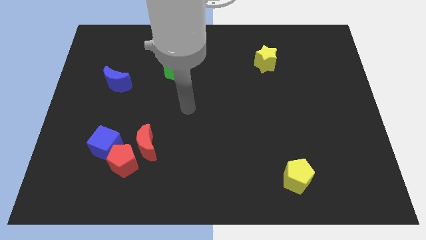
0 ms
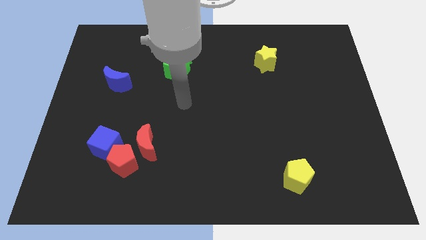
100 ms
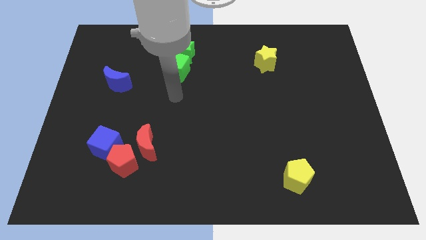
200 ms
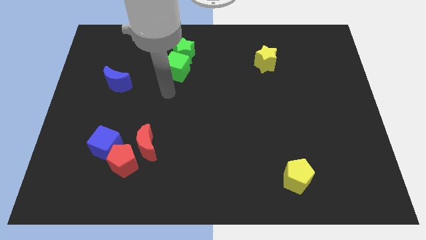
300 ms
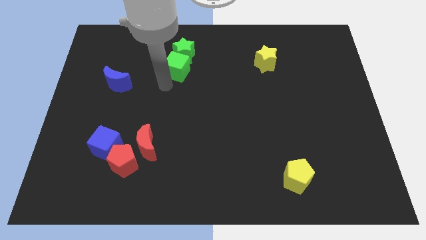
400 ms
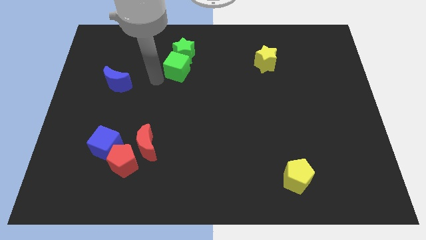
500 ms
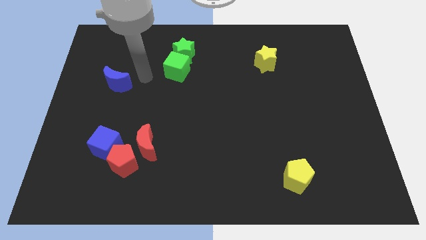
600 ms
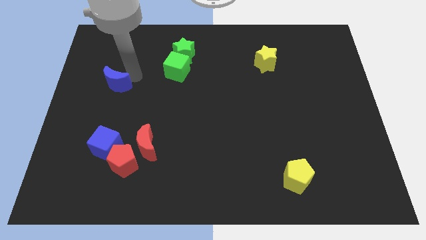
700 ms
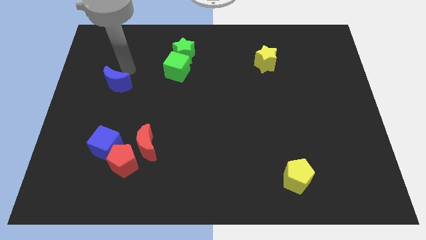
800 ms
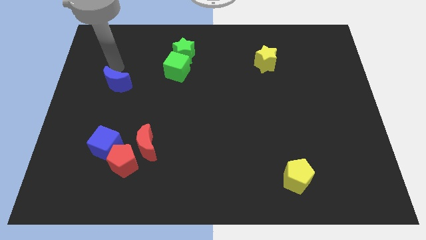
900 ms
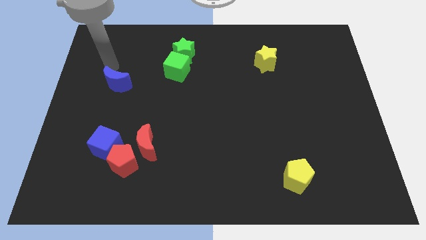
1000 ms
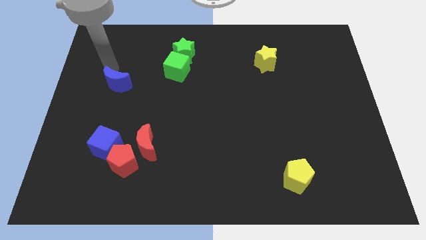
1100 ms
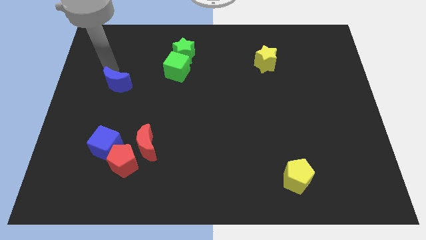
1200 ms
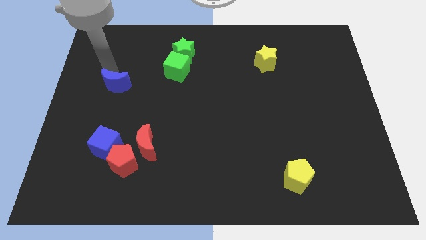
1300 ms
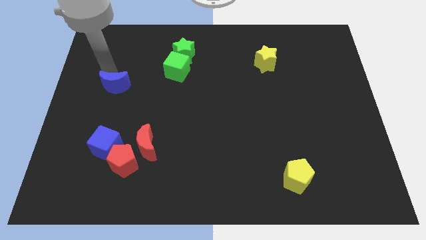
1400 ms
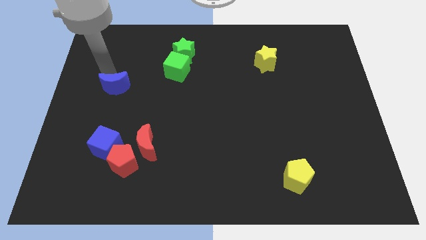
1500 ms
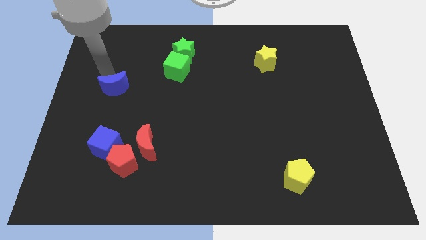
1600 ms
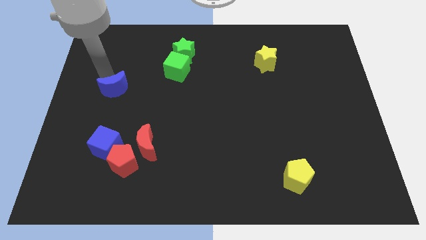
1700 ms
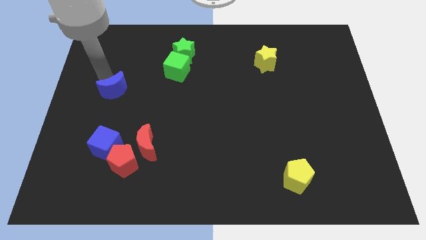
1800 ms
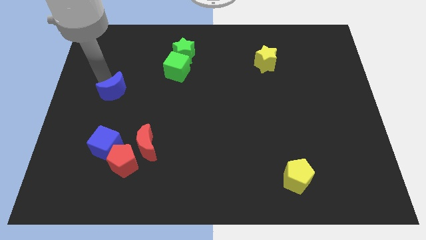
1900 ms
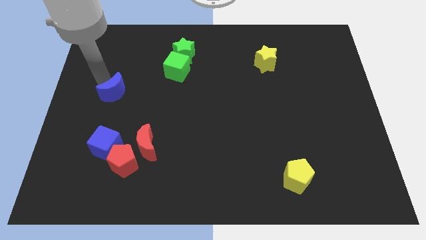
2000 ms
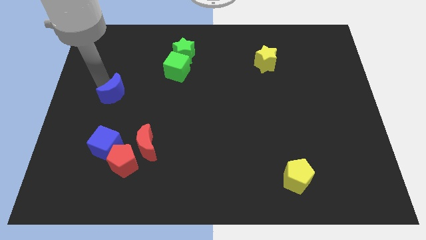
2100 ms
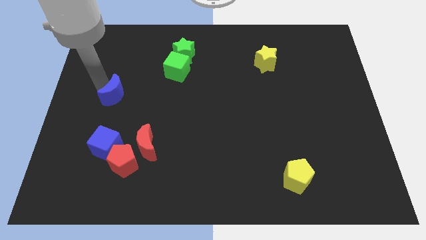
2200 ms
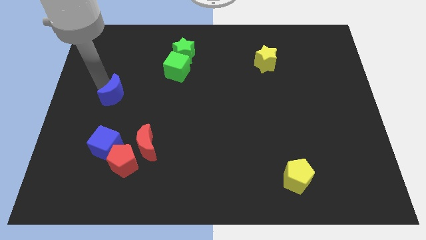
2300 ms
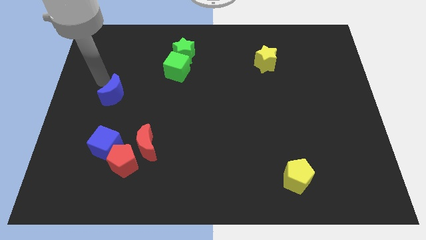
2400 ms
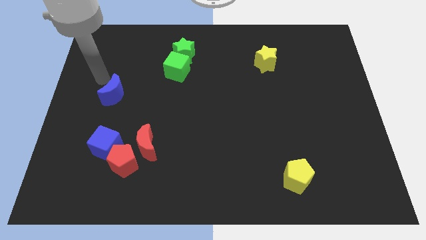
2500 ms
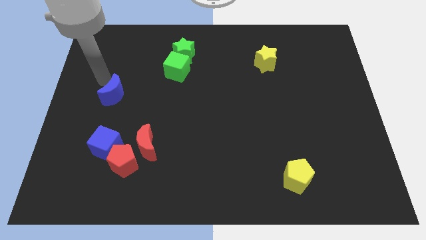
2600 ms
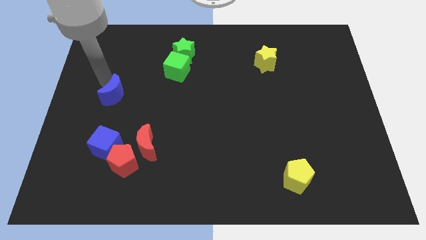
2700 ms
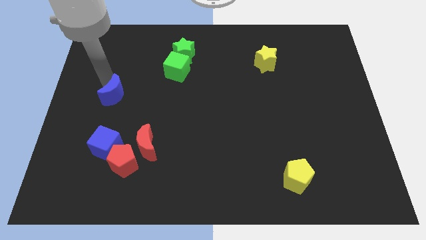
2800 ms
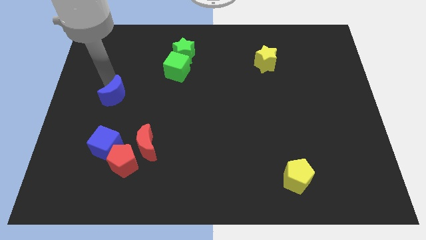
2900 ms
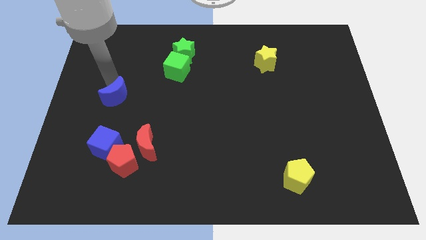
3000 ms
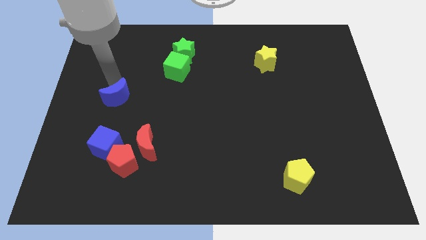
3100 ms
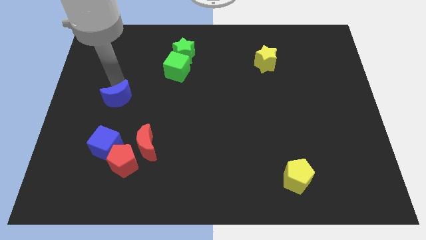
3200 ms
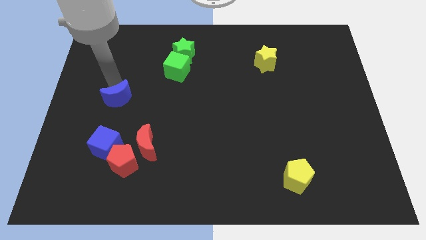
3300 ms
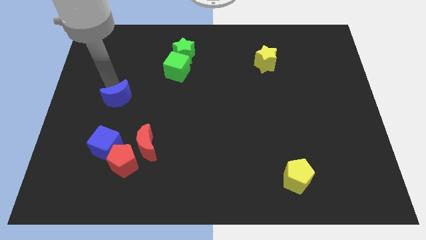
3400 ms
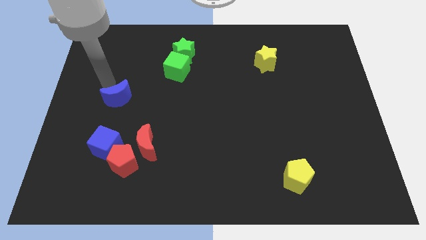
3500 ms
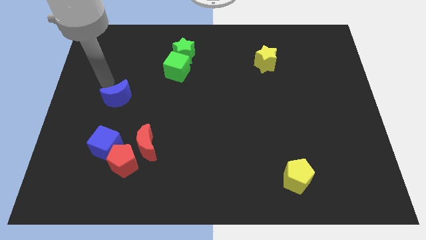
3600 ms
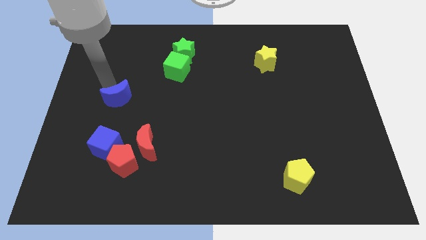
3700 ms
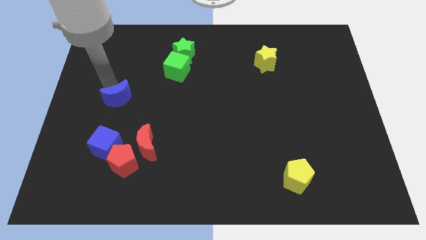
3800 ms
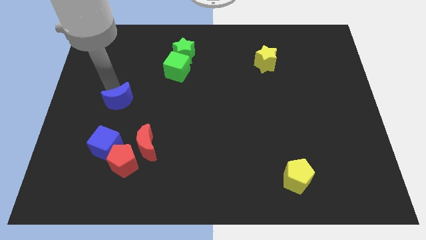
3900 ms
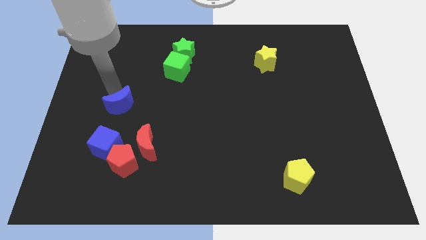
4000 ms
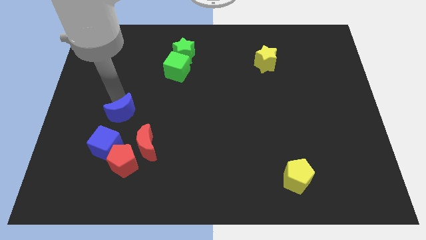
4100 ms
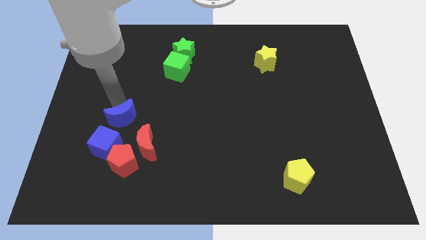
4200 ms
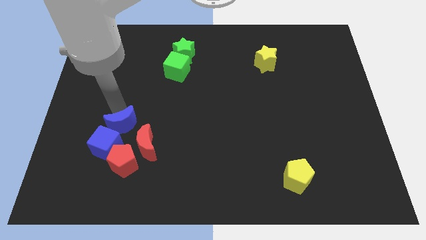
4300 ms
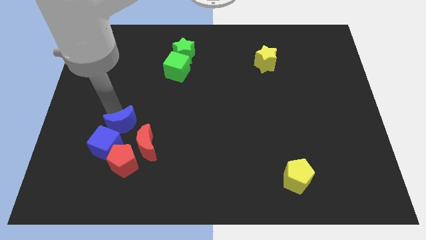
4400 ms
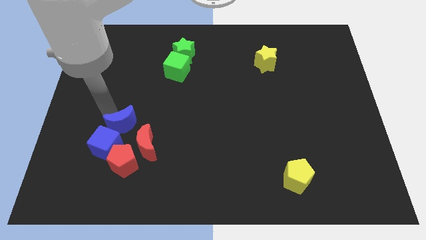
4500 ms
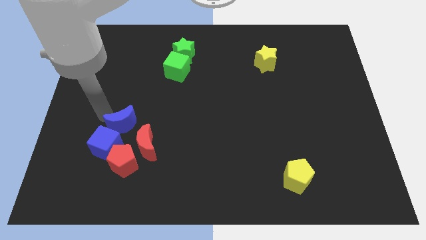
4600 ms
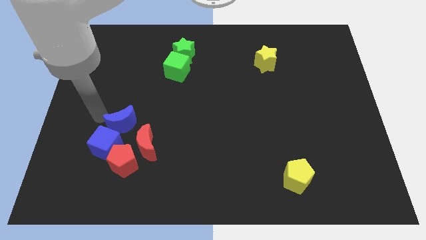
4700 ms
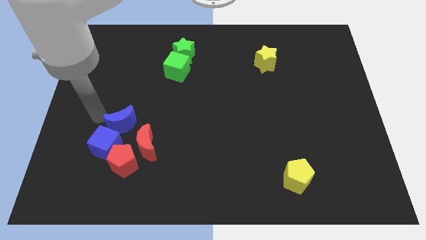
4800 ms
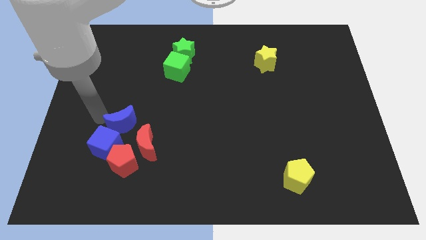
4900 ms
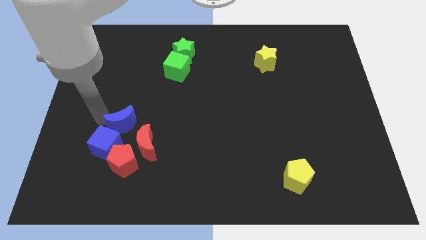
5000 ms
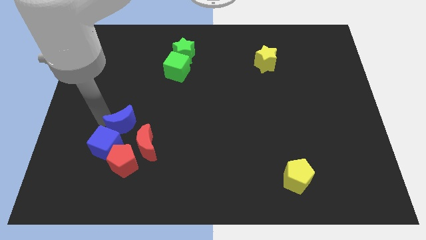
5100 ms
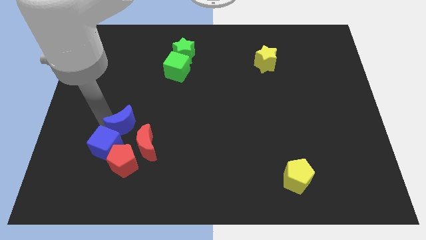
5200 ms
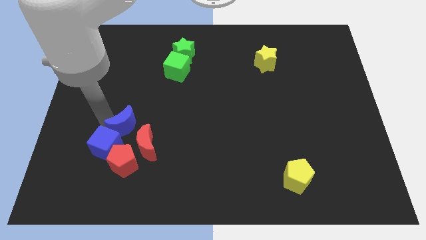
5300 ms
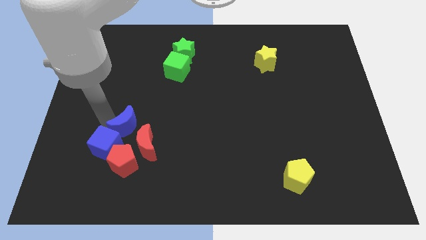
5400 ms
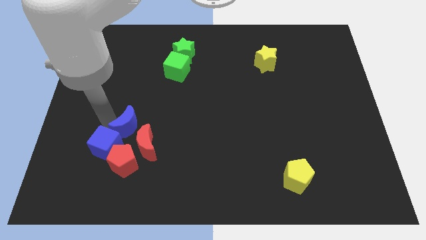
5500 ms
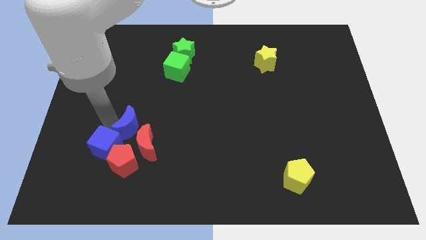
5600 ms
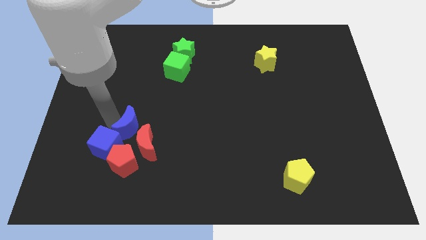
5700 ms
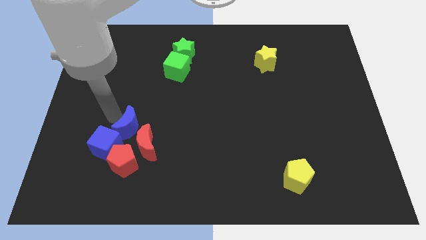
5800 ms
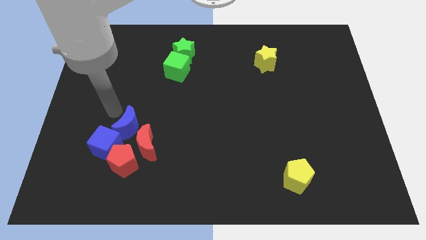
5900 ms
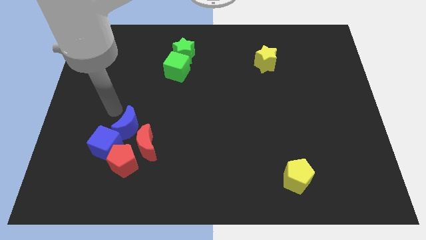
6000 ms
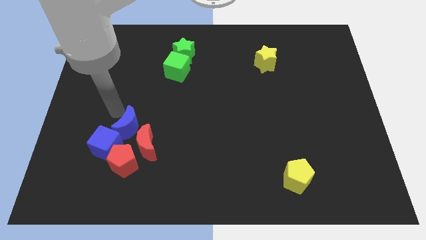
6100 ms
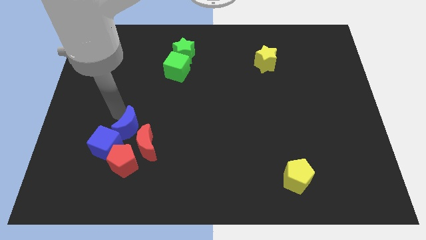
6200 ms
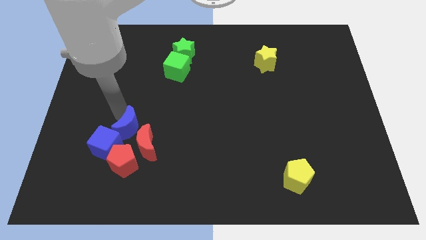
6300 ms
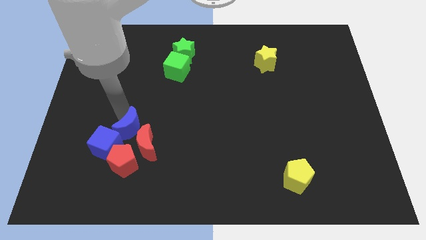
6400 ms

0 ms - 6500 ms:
slide the blue moon to the red moon

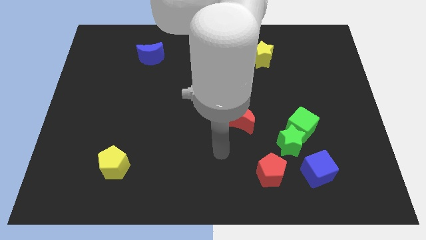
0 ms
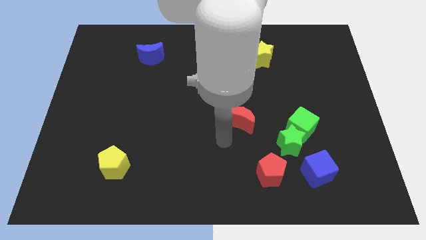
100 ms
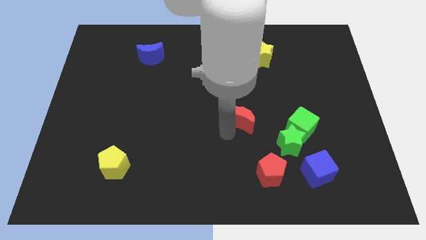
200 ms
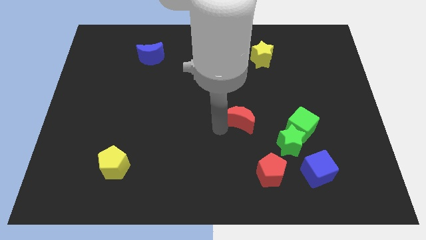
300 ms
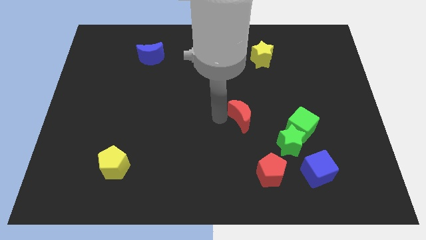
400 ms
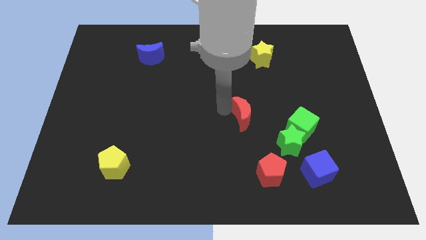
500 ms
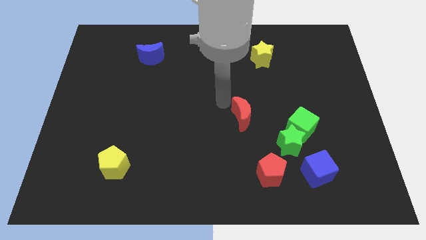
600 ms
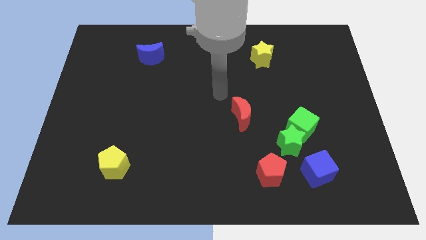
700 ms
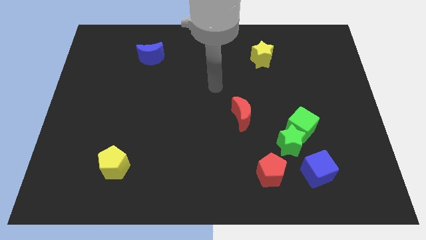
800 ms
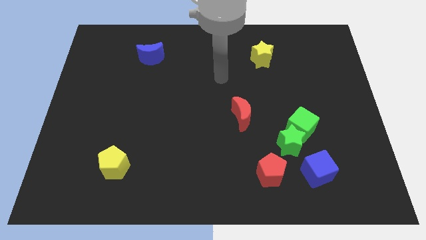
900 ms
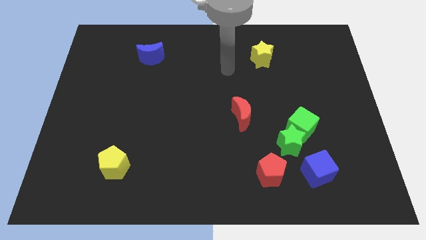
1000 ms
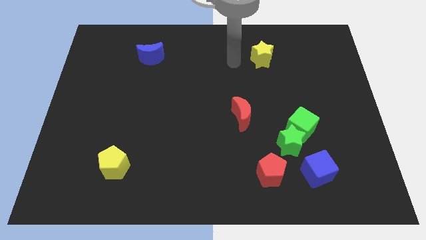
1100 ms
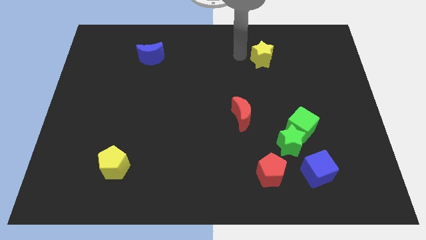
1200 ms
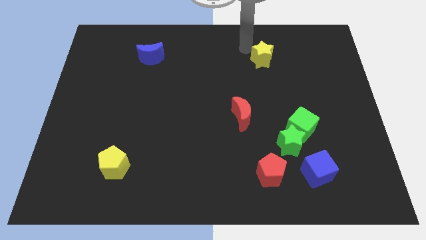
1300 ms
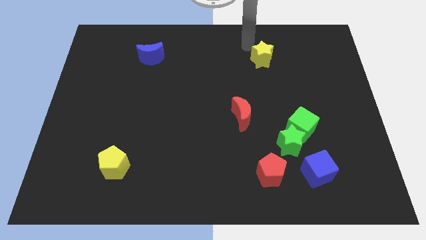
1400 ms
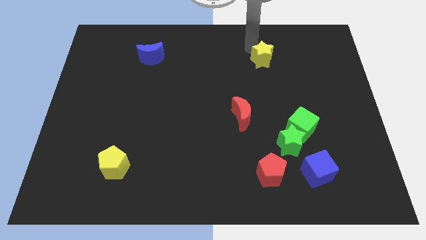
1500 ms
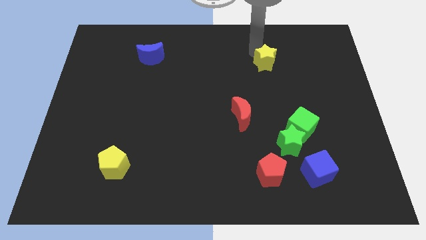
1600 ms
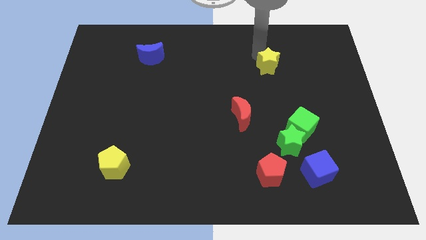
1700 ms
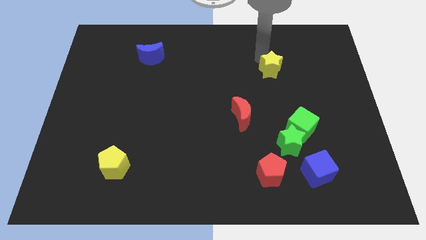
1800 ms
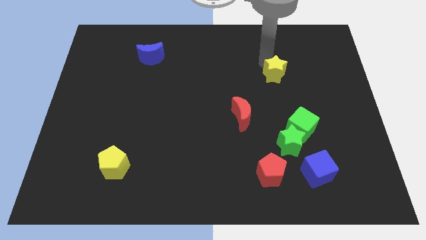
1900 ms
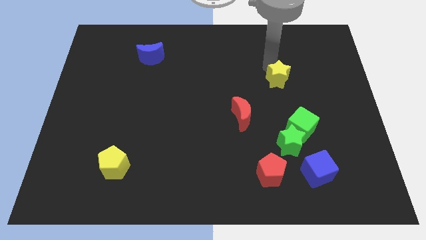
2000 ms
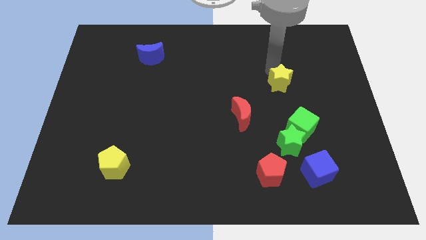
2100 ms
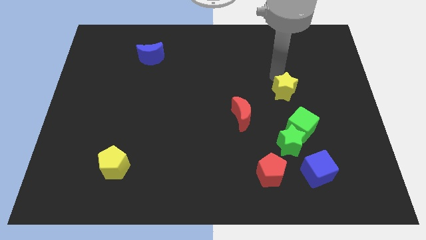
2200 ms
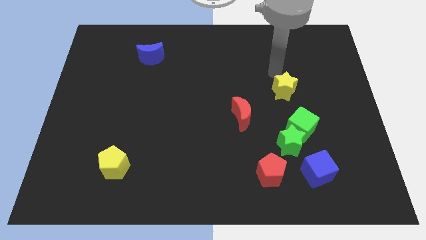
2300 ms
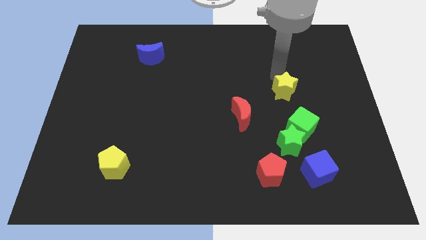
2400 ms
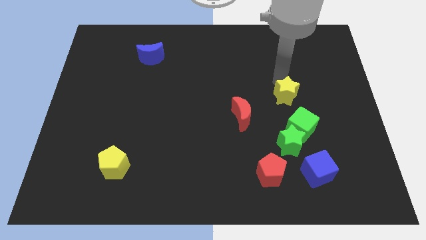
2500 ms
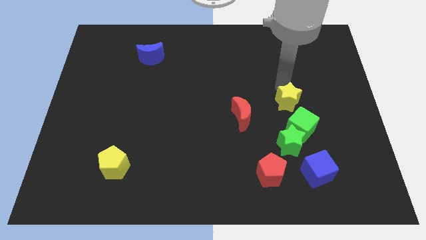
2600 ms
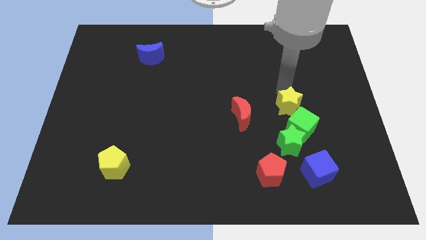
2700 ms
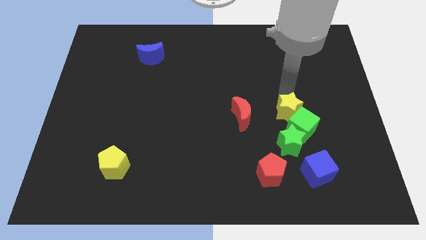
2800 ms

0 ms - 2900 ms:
move the yellow star close to the green cube
